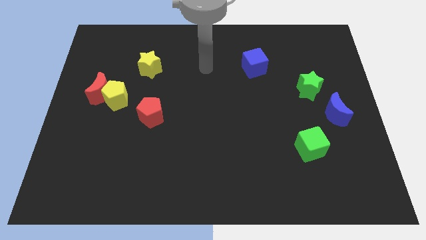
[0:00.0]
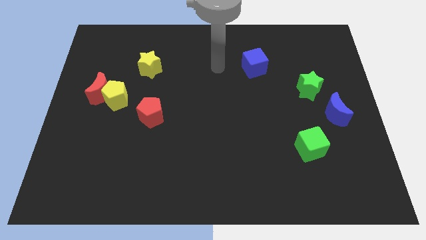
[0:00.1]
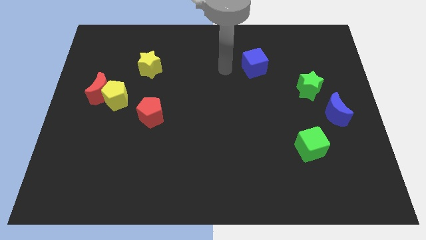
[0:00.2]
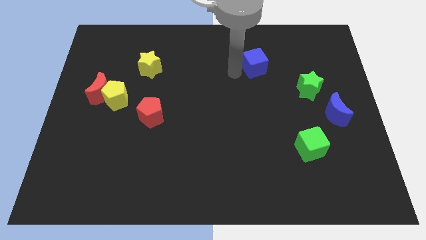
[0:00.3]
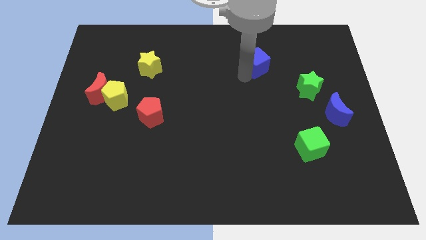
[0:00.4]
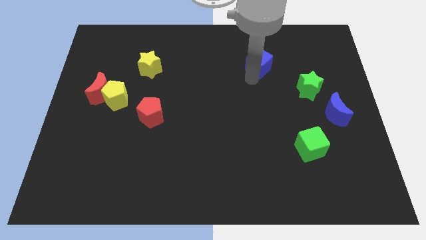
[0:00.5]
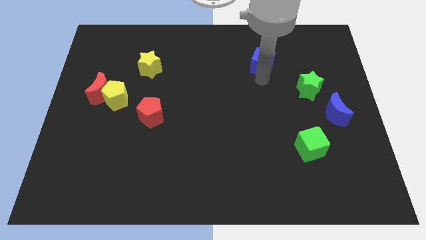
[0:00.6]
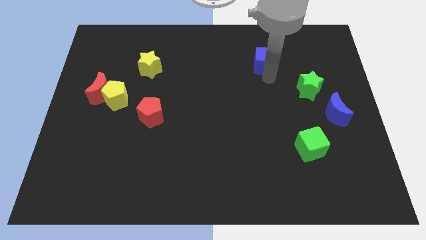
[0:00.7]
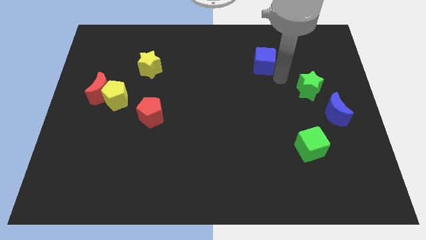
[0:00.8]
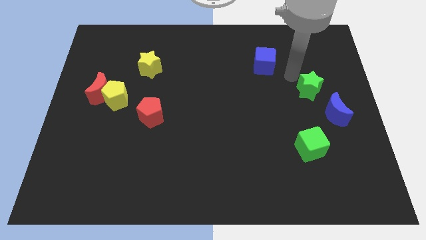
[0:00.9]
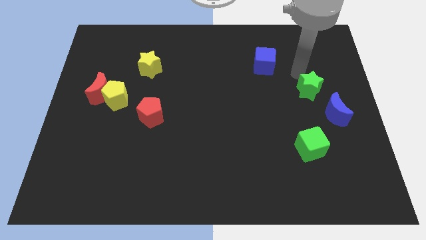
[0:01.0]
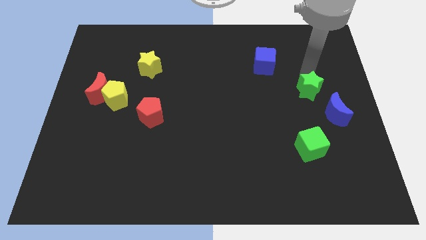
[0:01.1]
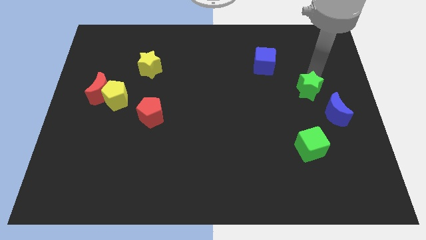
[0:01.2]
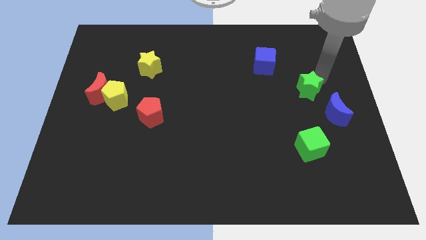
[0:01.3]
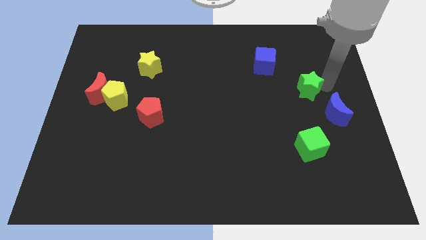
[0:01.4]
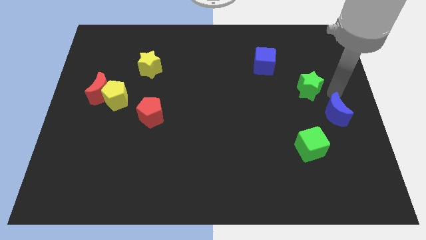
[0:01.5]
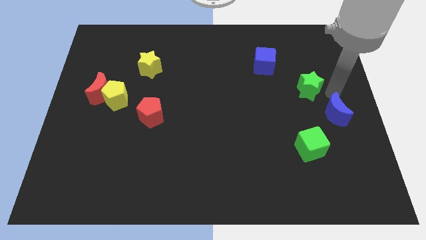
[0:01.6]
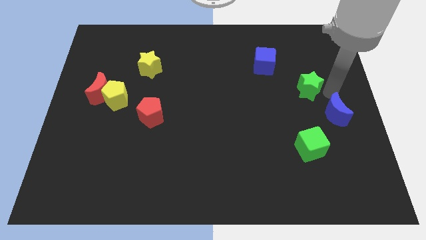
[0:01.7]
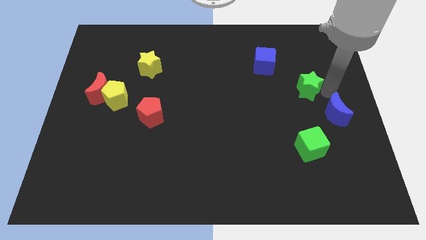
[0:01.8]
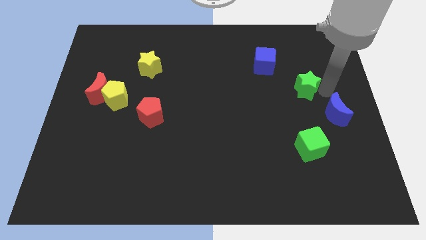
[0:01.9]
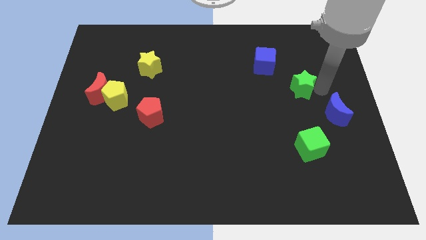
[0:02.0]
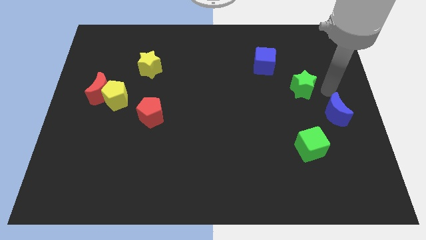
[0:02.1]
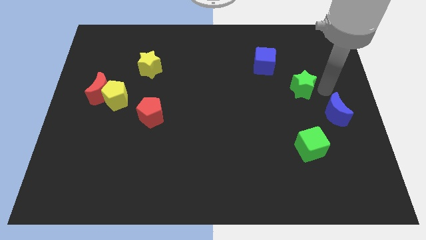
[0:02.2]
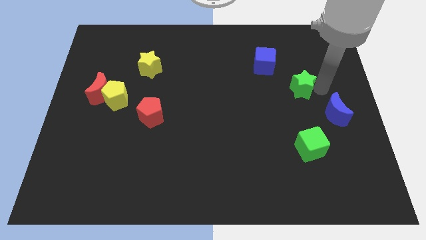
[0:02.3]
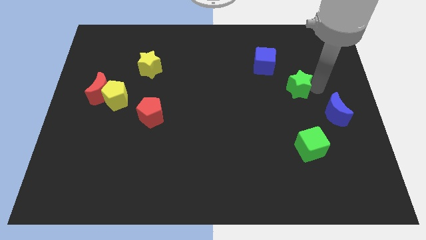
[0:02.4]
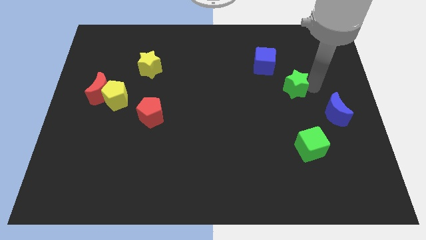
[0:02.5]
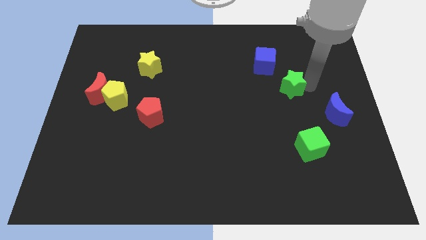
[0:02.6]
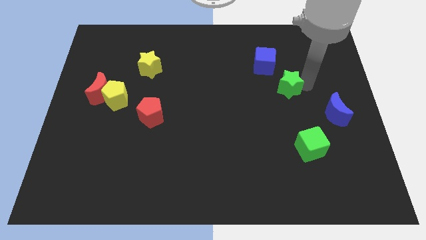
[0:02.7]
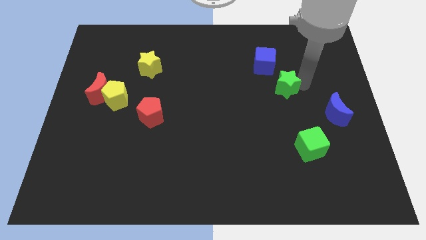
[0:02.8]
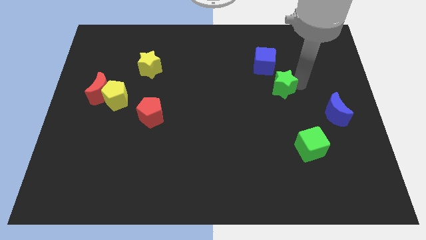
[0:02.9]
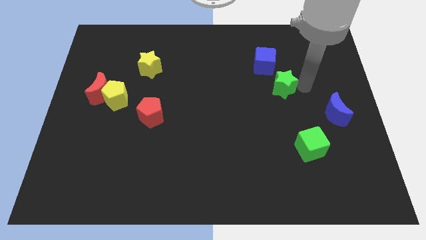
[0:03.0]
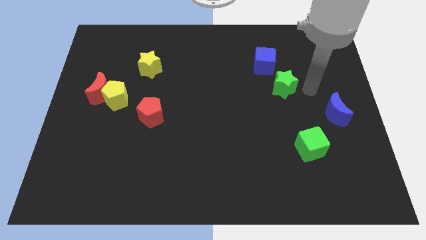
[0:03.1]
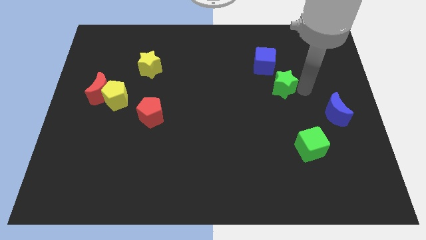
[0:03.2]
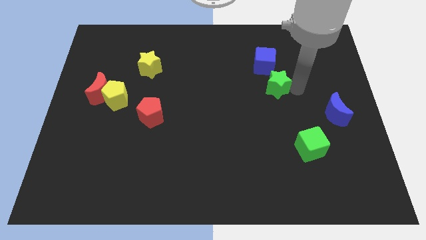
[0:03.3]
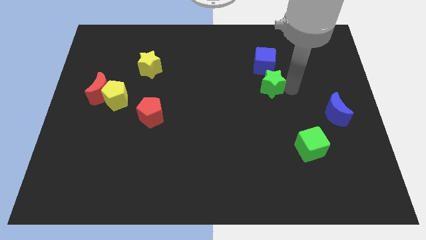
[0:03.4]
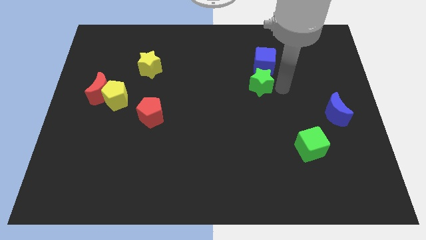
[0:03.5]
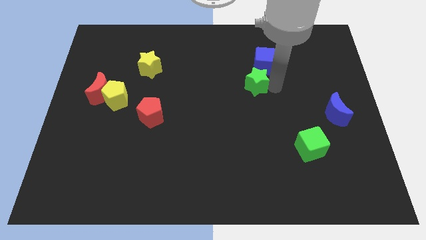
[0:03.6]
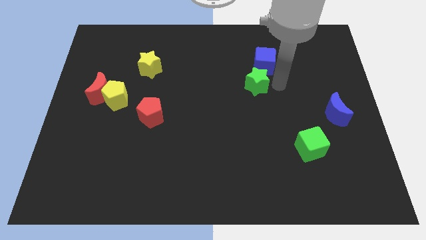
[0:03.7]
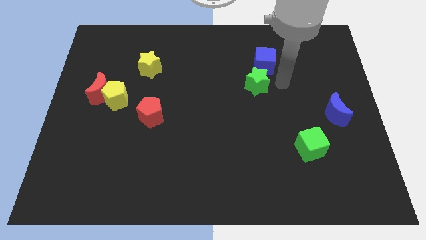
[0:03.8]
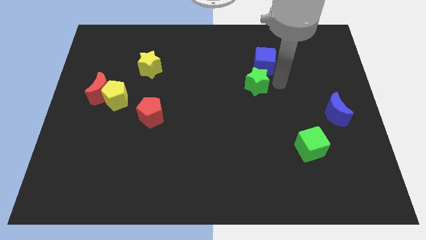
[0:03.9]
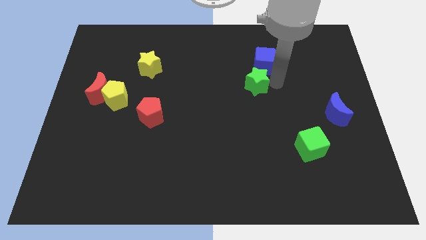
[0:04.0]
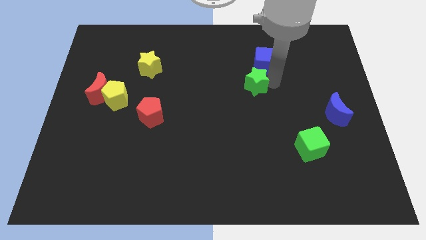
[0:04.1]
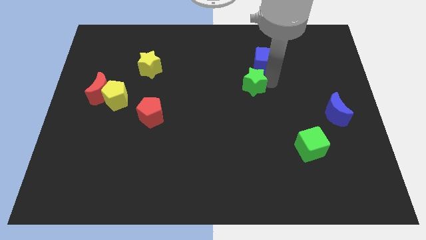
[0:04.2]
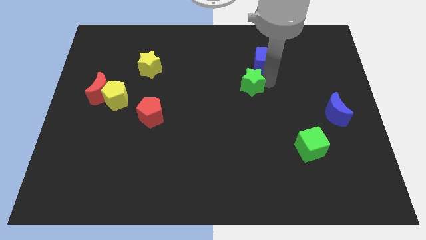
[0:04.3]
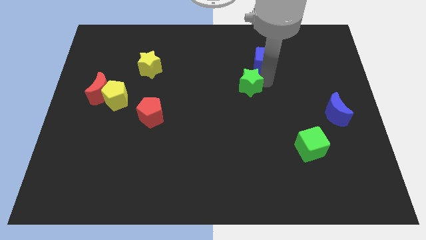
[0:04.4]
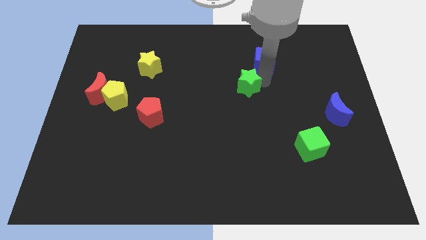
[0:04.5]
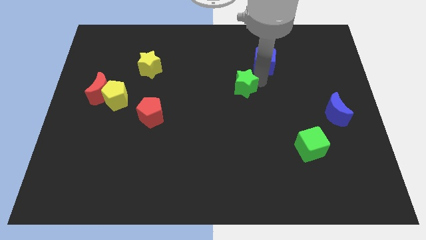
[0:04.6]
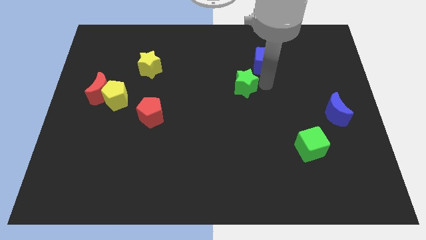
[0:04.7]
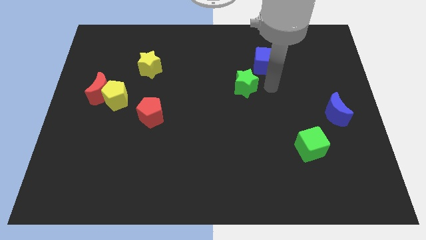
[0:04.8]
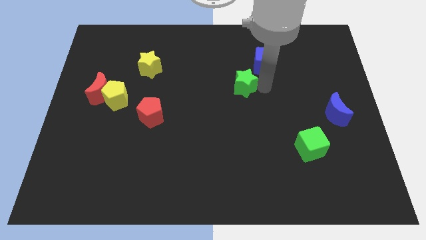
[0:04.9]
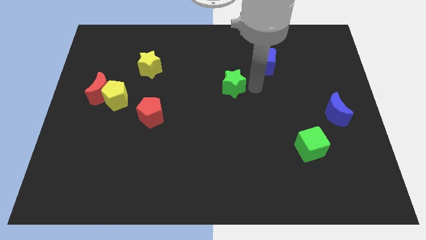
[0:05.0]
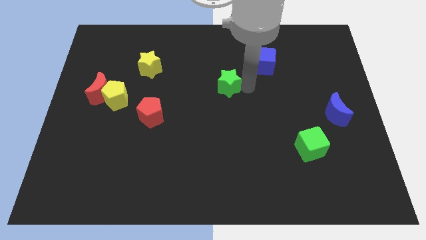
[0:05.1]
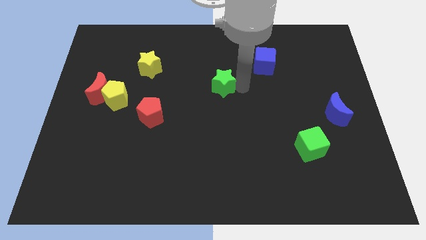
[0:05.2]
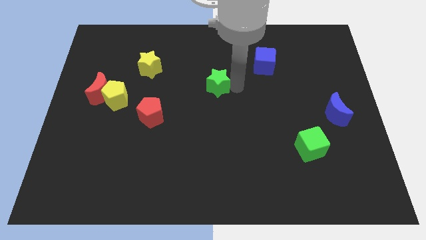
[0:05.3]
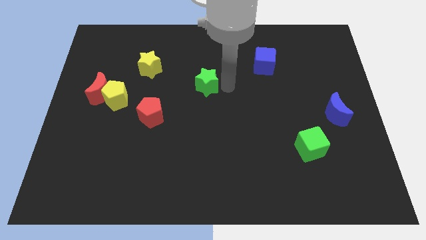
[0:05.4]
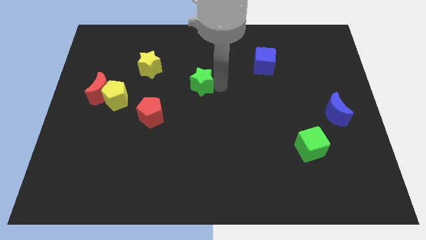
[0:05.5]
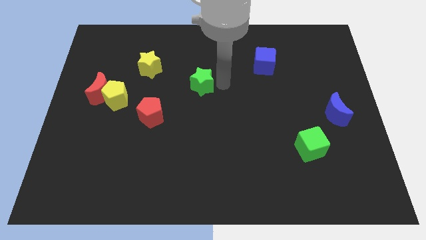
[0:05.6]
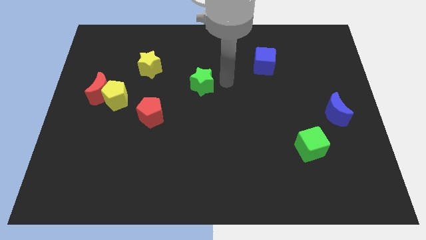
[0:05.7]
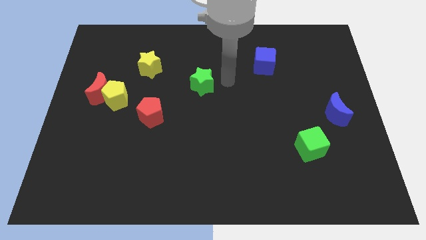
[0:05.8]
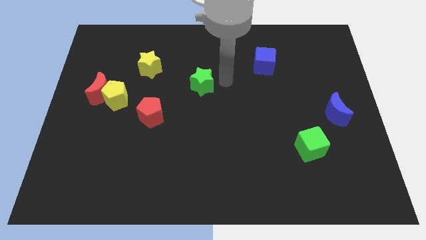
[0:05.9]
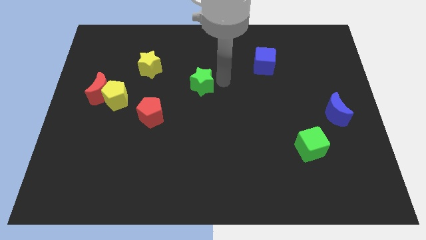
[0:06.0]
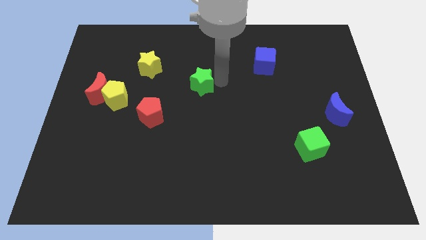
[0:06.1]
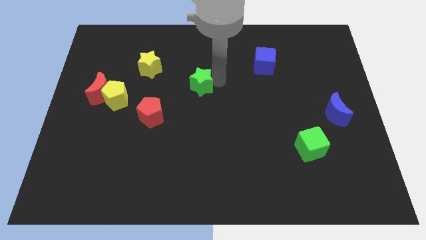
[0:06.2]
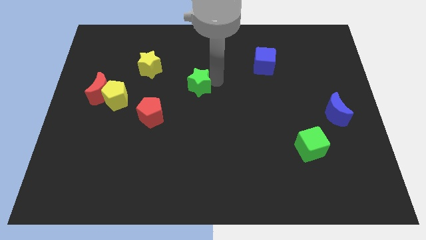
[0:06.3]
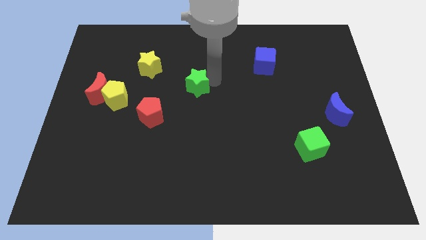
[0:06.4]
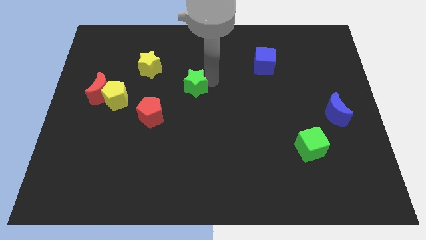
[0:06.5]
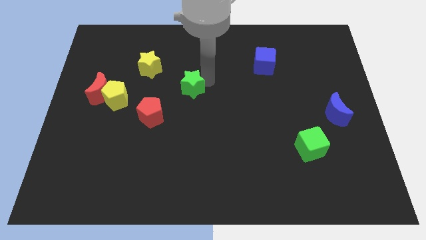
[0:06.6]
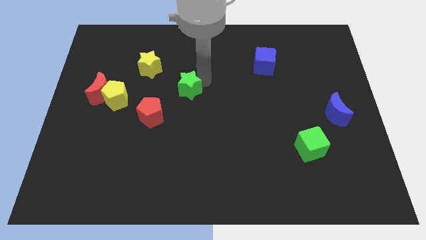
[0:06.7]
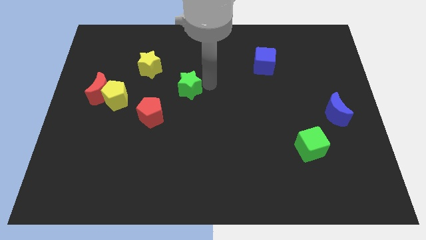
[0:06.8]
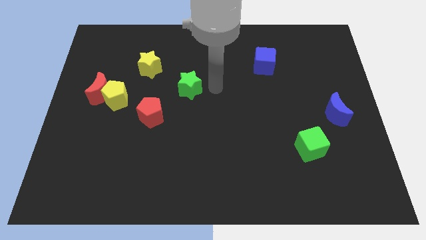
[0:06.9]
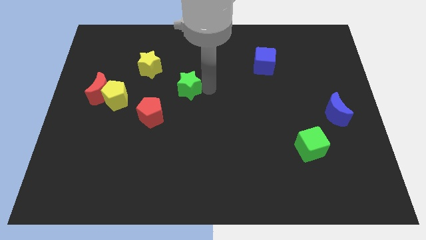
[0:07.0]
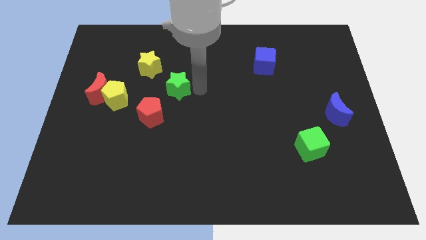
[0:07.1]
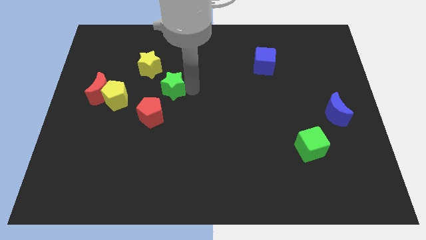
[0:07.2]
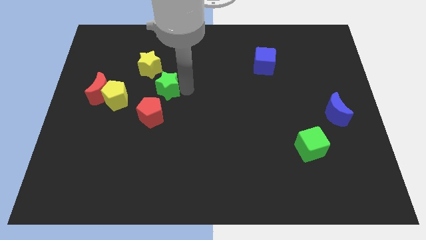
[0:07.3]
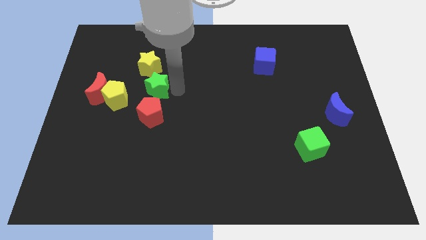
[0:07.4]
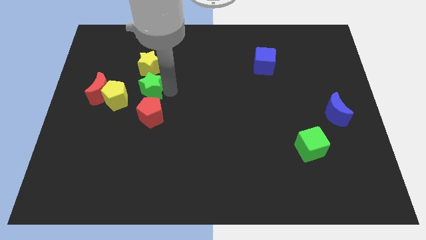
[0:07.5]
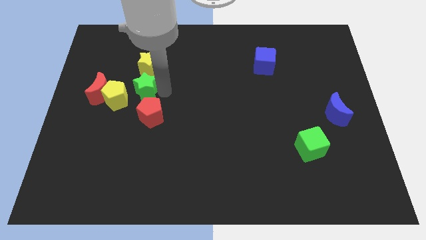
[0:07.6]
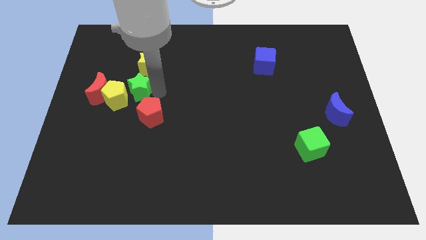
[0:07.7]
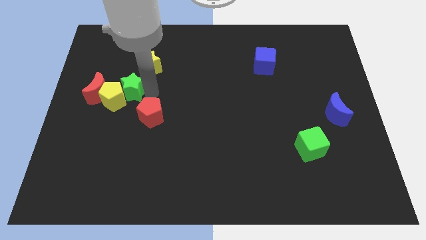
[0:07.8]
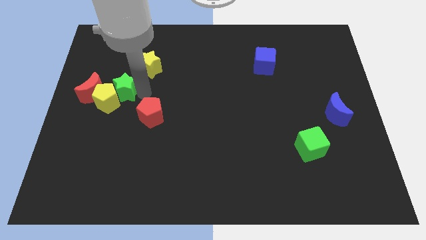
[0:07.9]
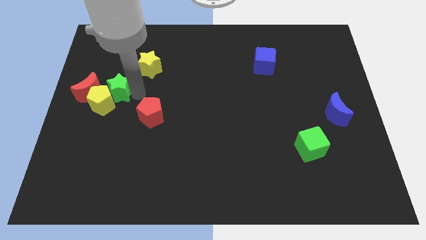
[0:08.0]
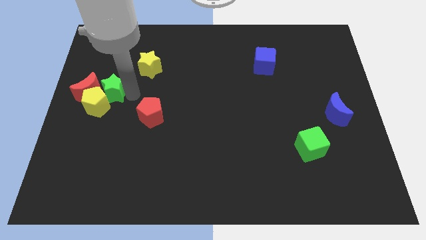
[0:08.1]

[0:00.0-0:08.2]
move the green star to the red moon
